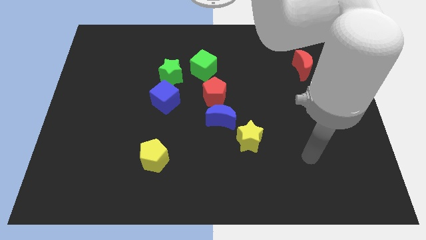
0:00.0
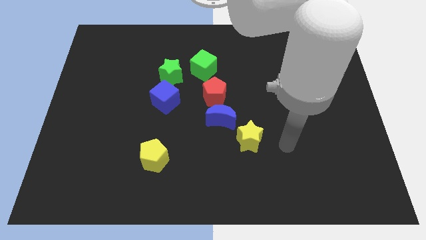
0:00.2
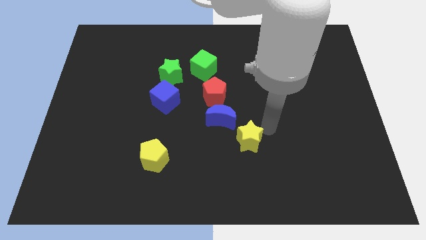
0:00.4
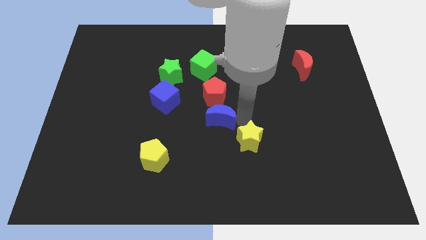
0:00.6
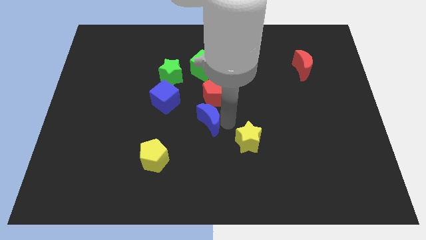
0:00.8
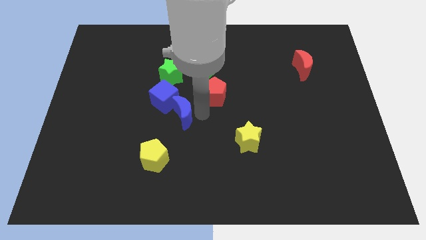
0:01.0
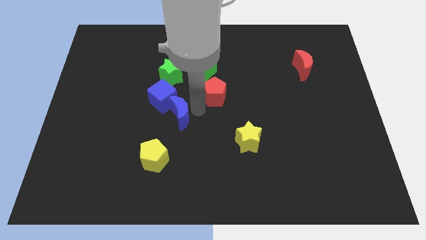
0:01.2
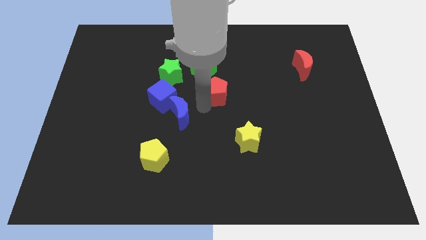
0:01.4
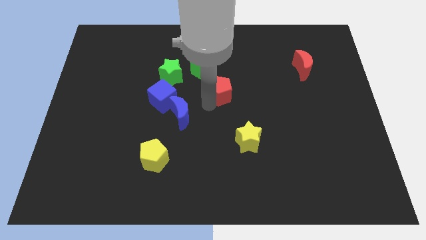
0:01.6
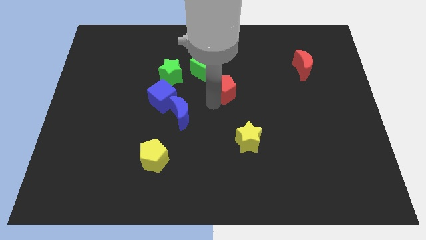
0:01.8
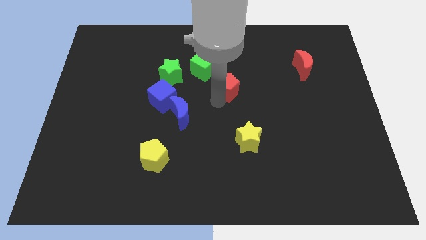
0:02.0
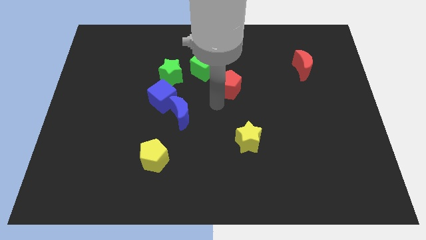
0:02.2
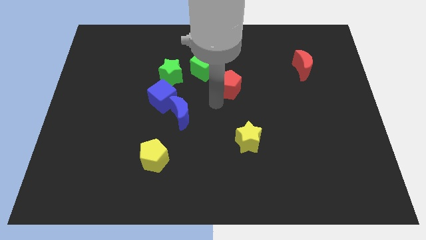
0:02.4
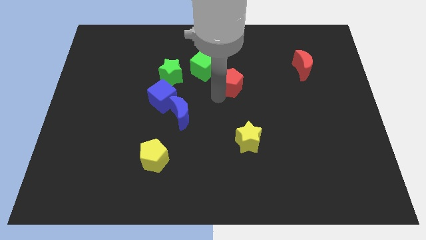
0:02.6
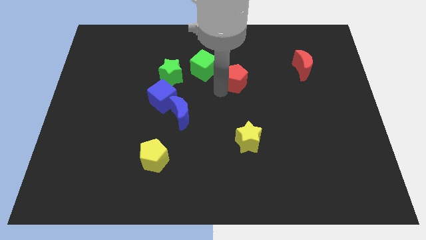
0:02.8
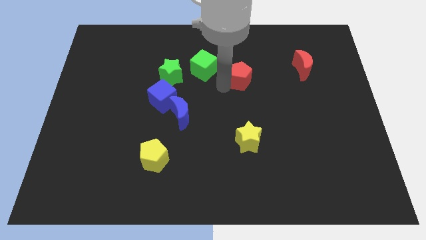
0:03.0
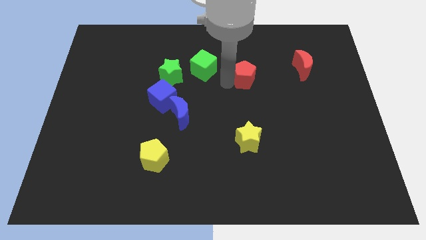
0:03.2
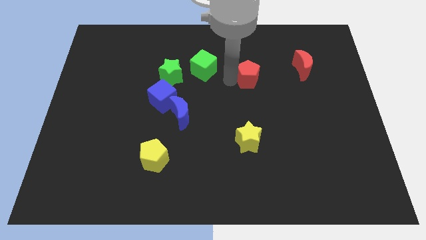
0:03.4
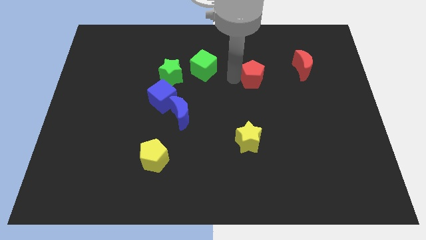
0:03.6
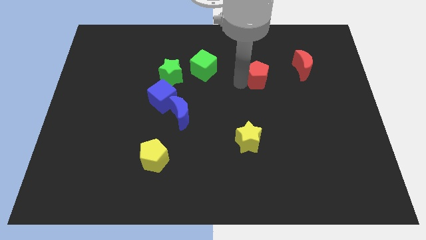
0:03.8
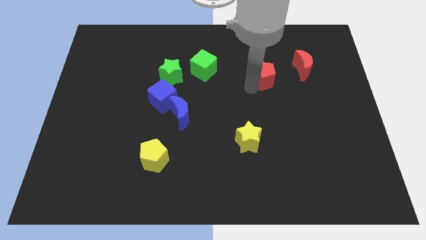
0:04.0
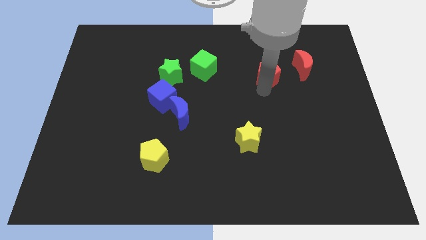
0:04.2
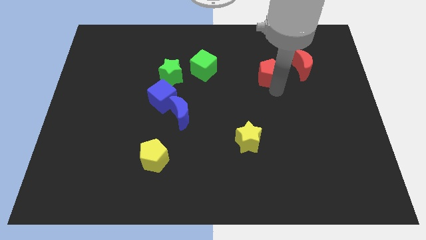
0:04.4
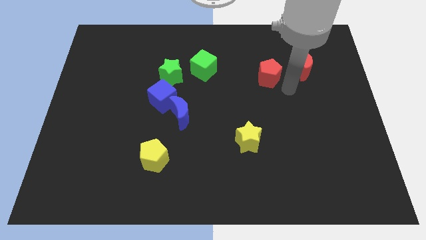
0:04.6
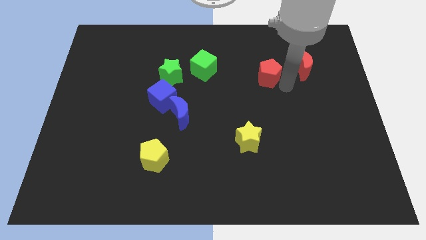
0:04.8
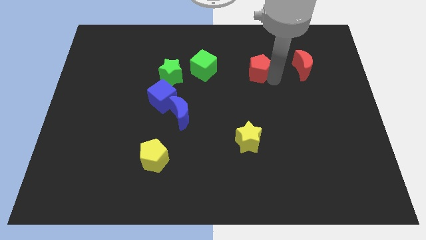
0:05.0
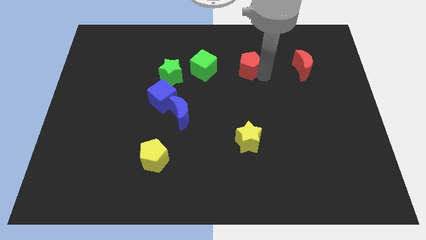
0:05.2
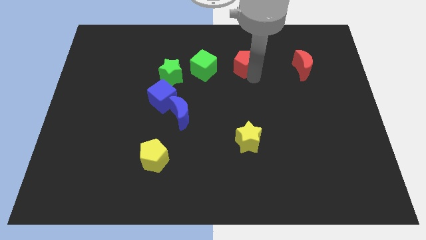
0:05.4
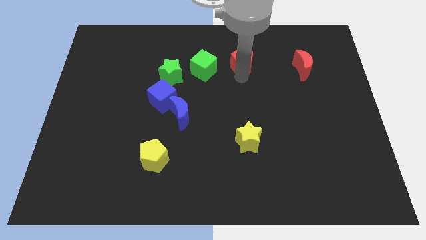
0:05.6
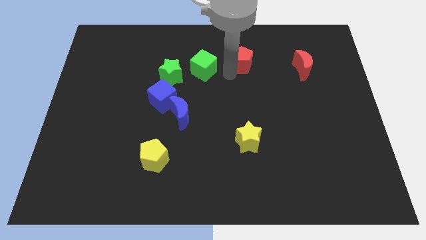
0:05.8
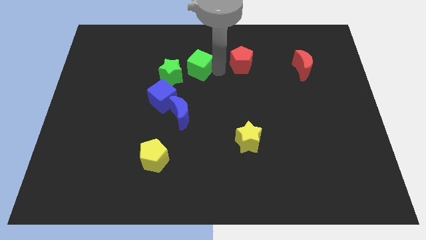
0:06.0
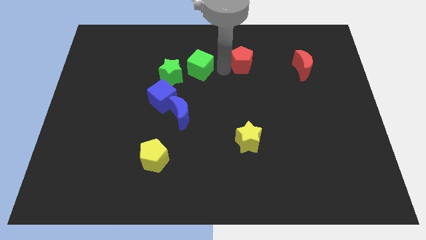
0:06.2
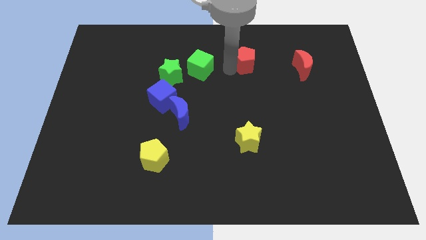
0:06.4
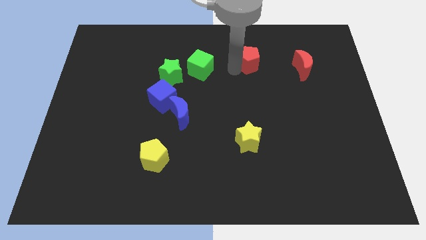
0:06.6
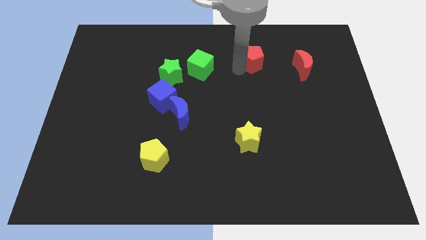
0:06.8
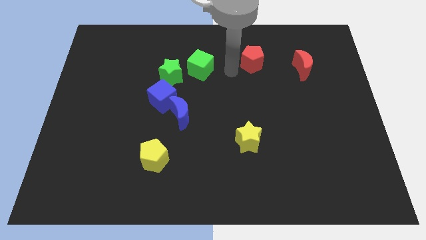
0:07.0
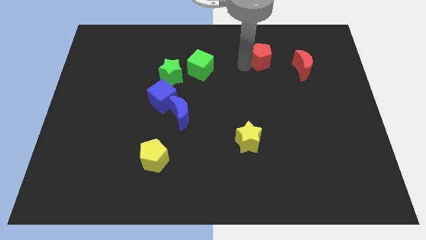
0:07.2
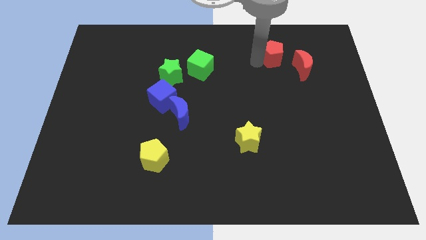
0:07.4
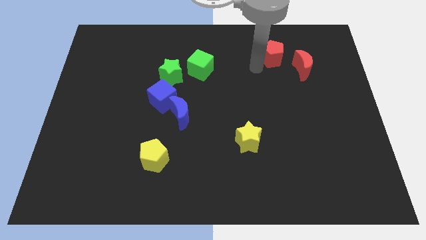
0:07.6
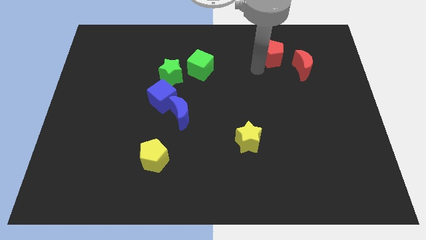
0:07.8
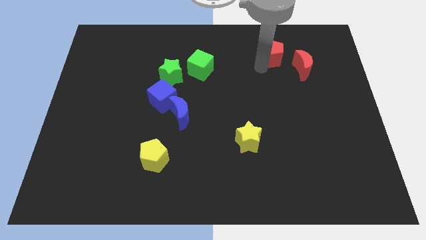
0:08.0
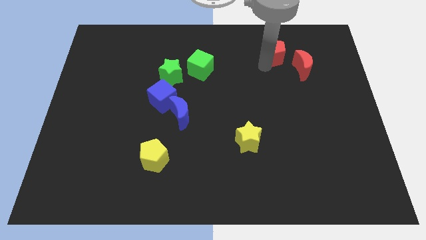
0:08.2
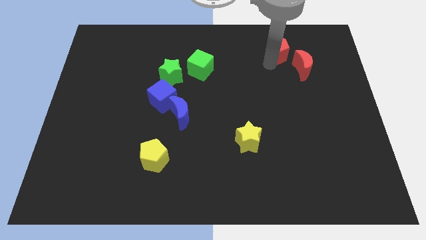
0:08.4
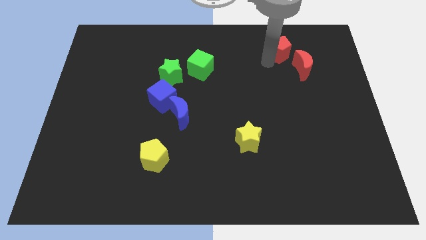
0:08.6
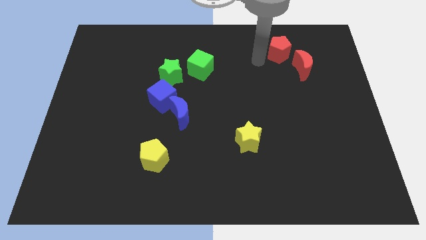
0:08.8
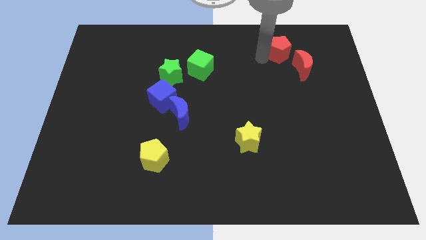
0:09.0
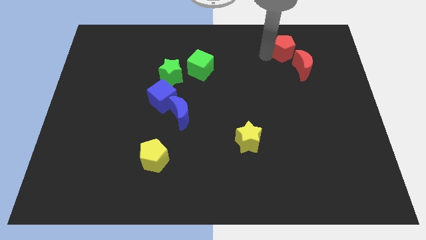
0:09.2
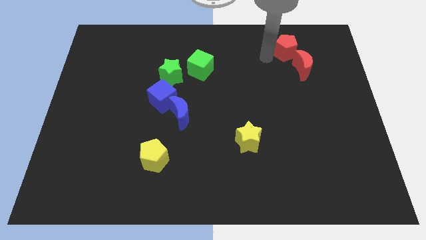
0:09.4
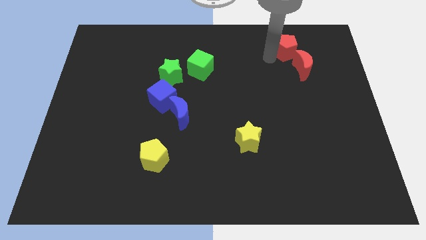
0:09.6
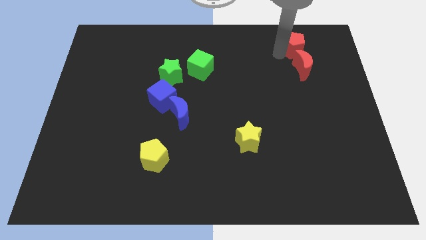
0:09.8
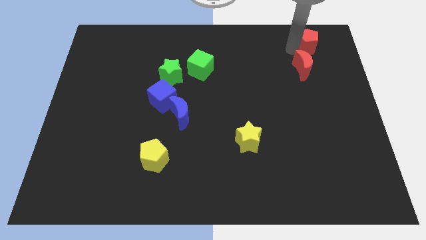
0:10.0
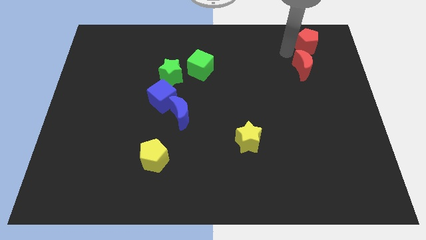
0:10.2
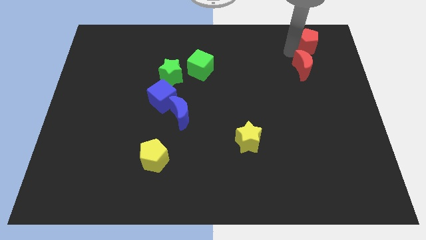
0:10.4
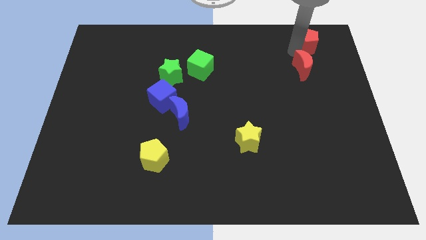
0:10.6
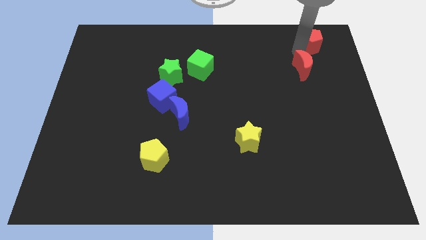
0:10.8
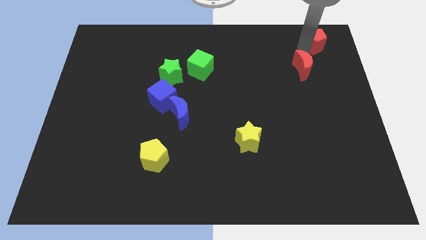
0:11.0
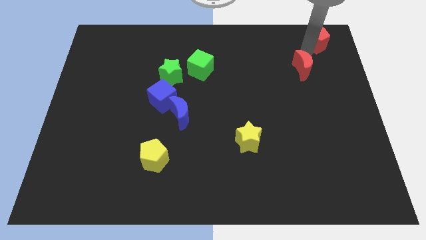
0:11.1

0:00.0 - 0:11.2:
put the red pentagon to the top right
